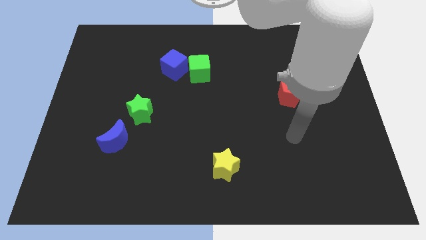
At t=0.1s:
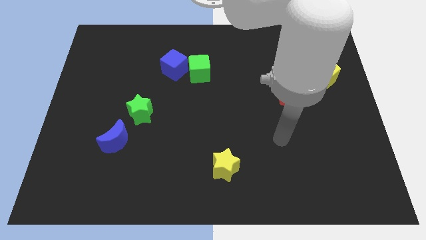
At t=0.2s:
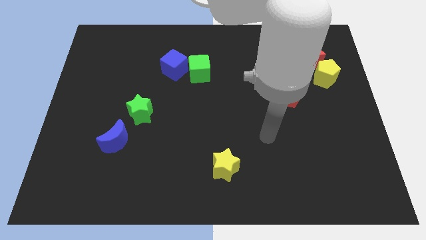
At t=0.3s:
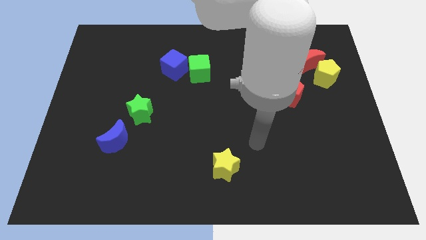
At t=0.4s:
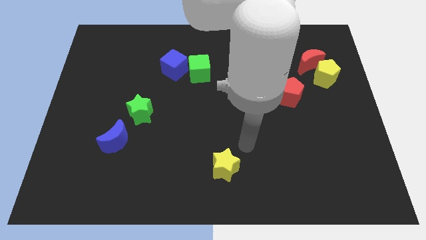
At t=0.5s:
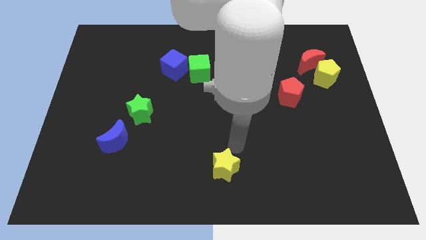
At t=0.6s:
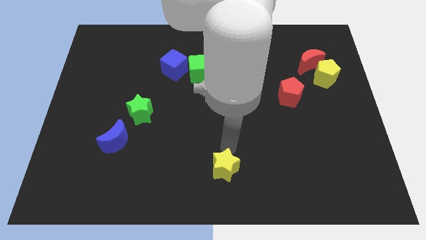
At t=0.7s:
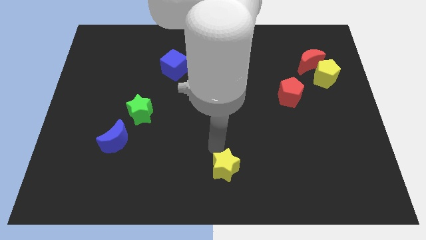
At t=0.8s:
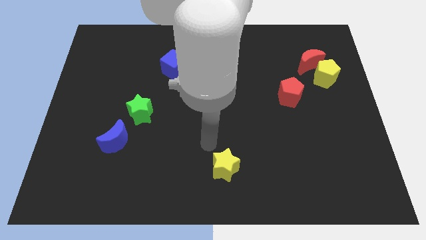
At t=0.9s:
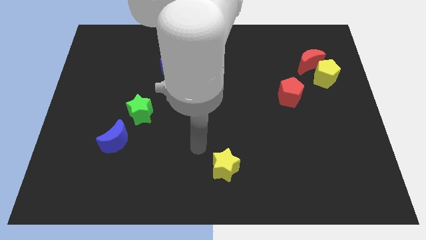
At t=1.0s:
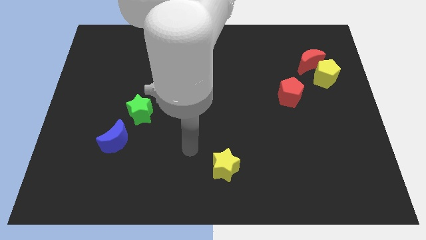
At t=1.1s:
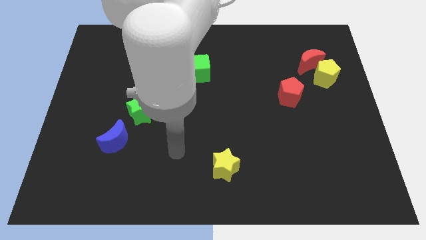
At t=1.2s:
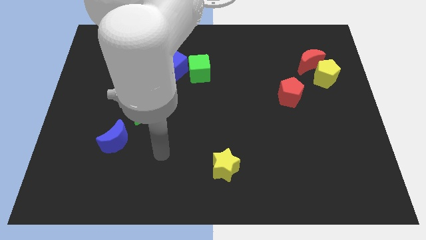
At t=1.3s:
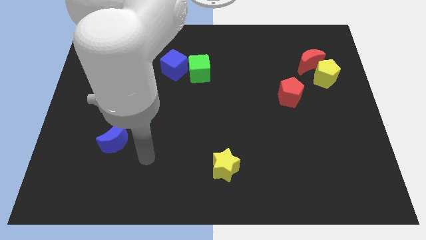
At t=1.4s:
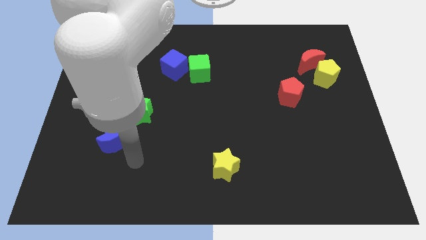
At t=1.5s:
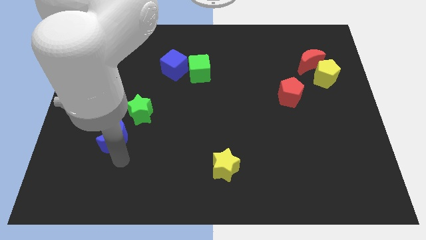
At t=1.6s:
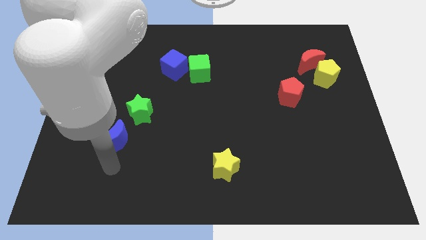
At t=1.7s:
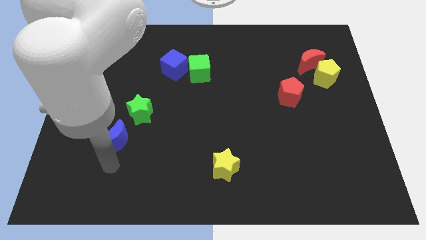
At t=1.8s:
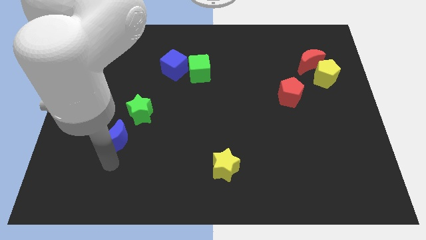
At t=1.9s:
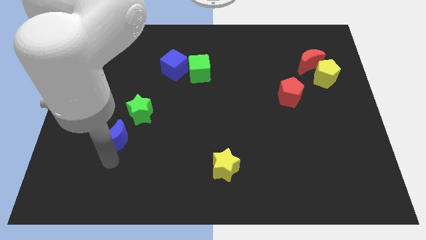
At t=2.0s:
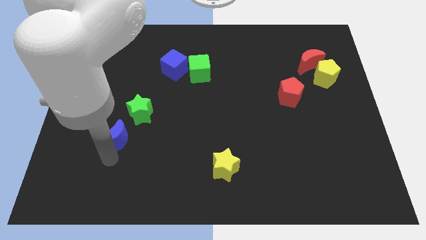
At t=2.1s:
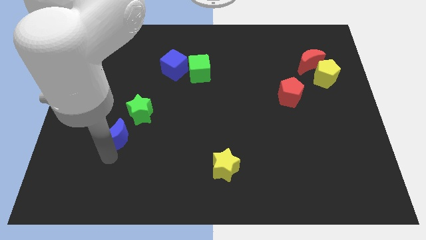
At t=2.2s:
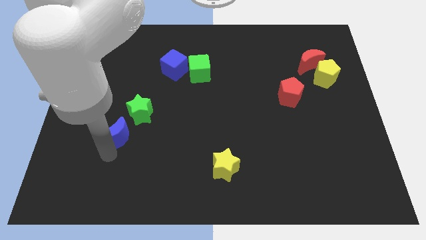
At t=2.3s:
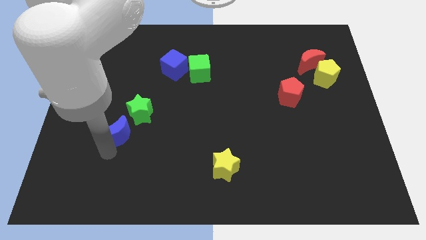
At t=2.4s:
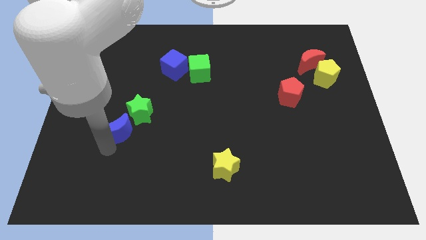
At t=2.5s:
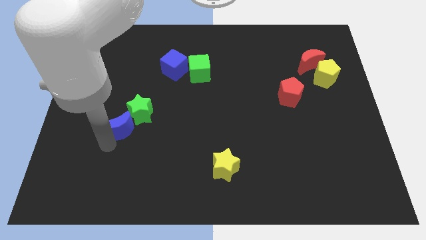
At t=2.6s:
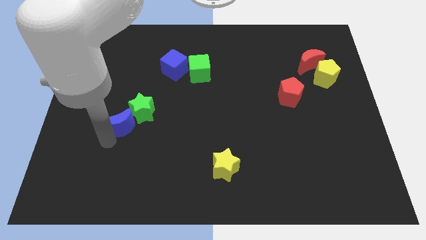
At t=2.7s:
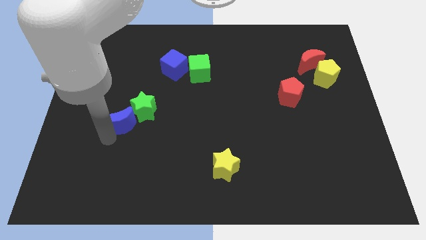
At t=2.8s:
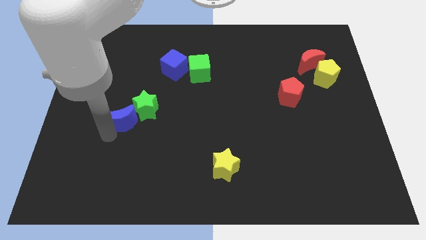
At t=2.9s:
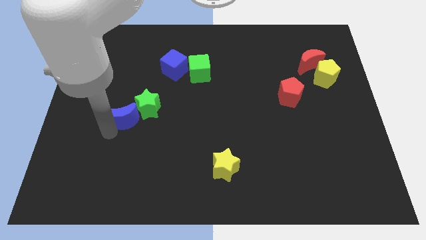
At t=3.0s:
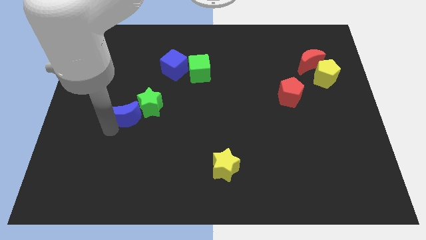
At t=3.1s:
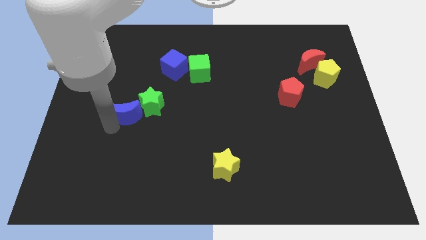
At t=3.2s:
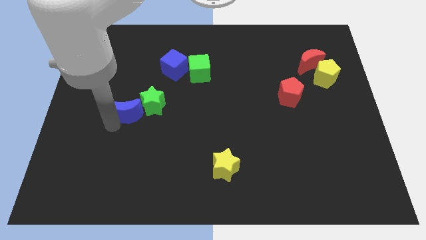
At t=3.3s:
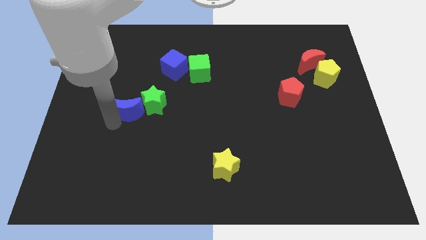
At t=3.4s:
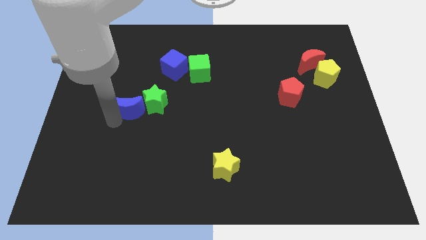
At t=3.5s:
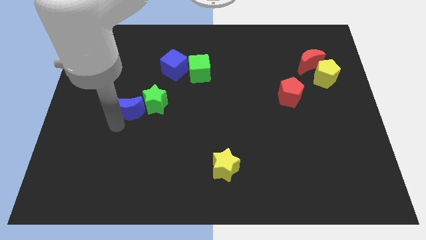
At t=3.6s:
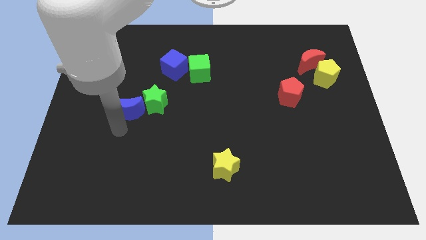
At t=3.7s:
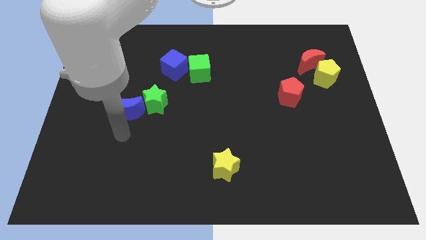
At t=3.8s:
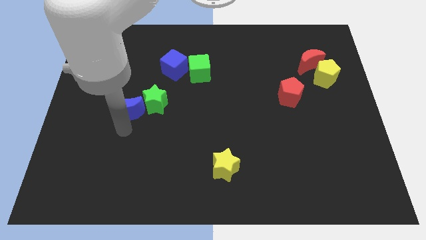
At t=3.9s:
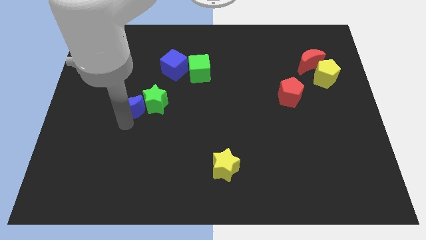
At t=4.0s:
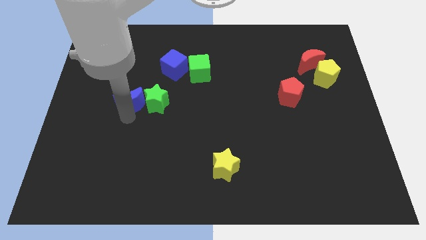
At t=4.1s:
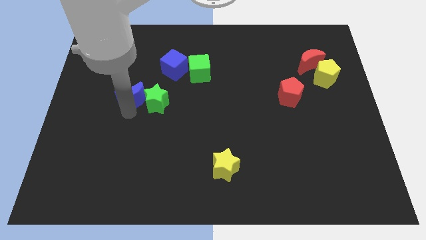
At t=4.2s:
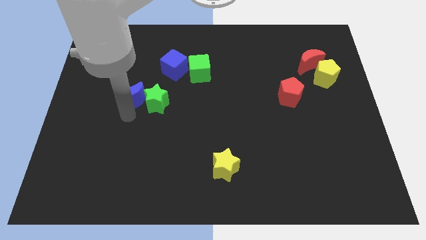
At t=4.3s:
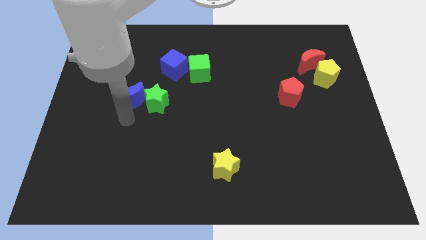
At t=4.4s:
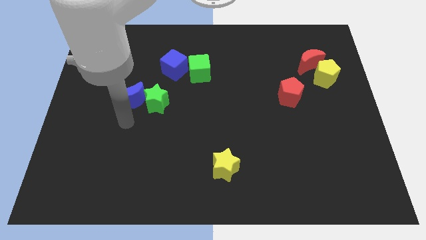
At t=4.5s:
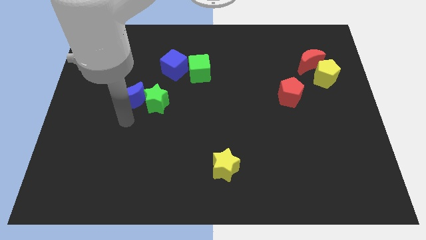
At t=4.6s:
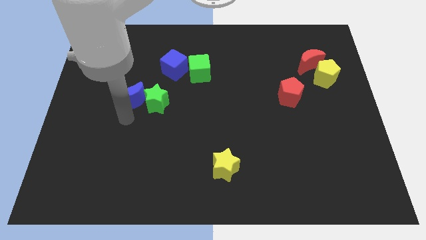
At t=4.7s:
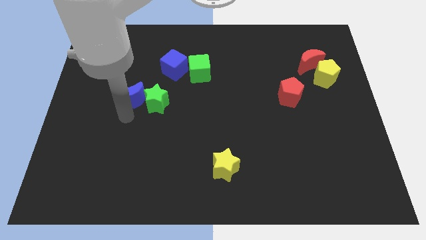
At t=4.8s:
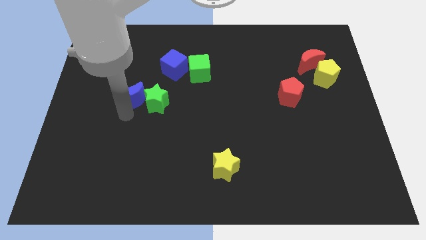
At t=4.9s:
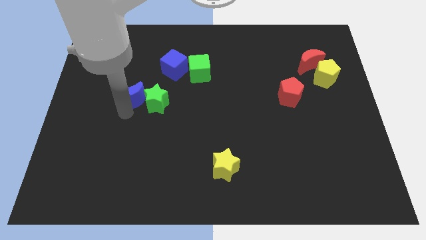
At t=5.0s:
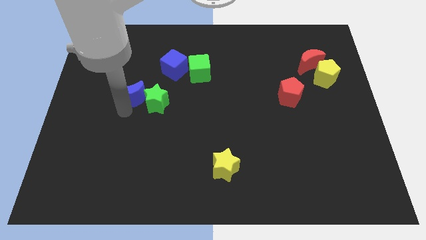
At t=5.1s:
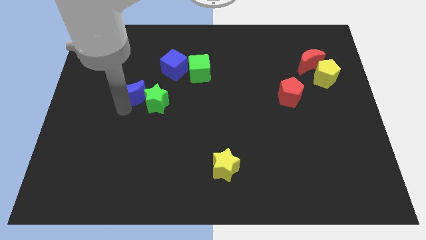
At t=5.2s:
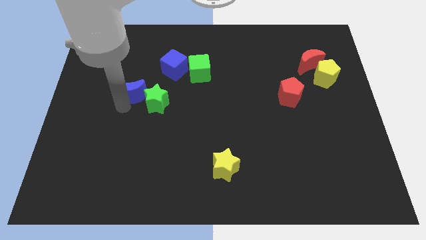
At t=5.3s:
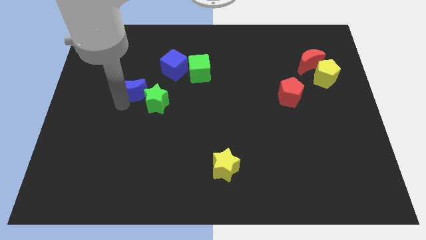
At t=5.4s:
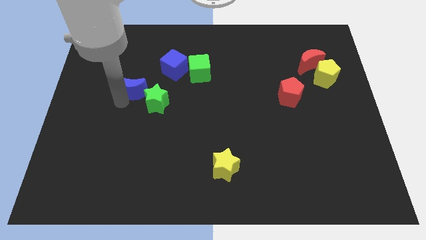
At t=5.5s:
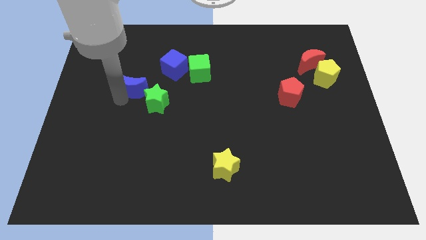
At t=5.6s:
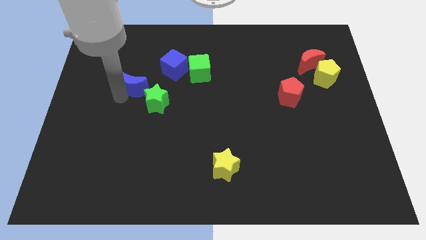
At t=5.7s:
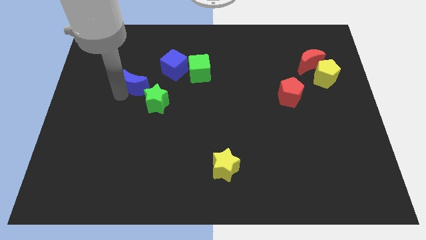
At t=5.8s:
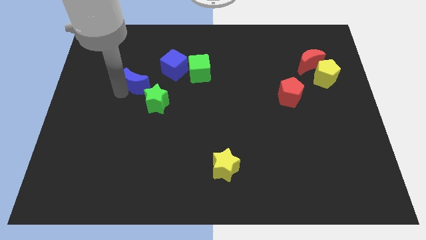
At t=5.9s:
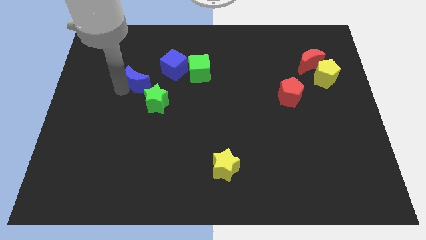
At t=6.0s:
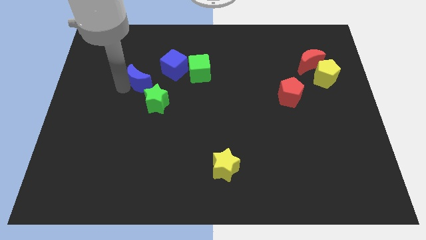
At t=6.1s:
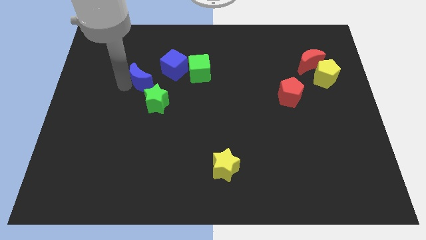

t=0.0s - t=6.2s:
move the blue moon above the green star

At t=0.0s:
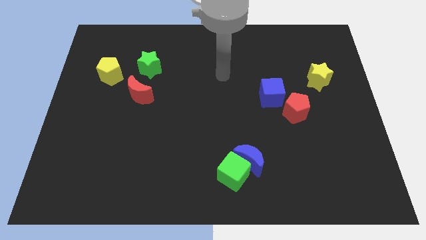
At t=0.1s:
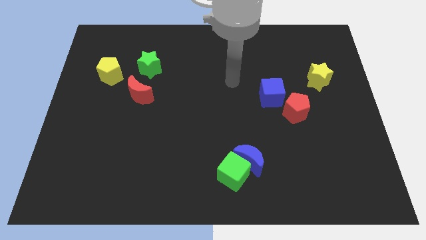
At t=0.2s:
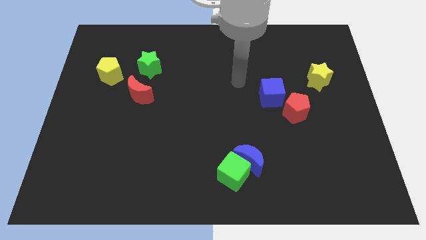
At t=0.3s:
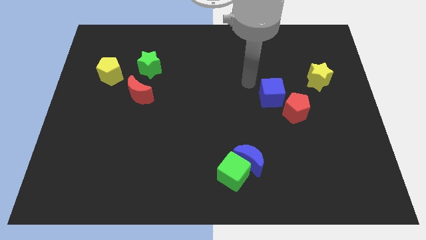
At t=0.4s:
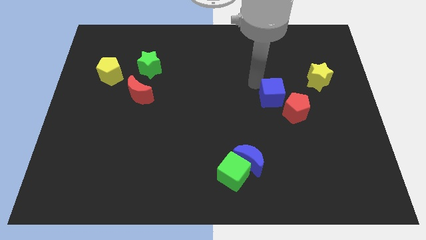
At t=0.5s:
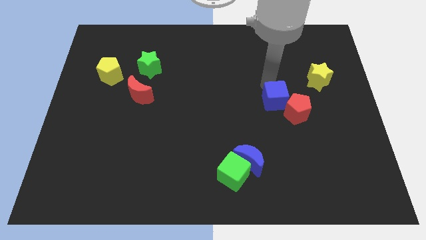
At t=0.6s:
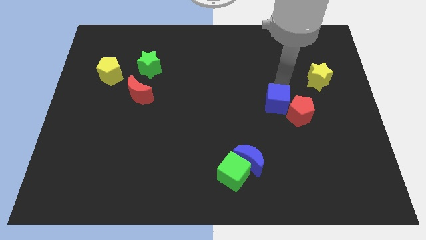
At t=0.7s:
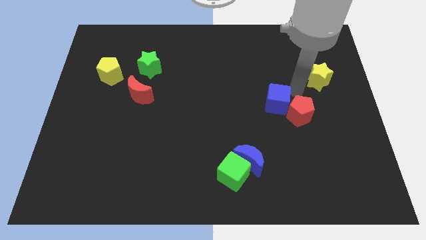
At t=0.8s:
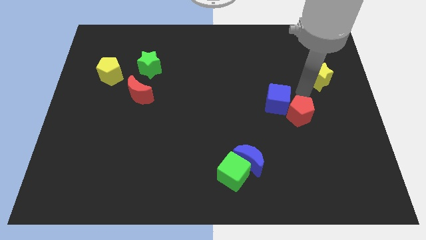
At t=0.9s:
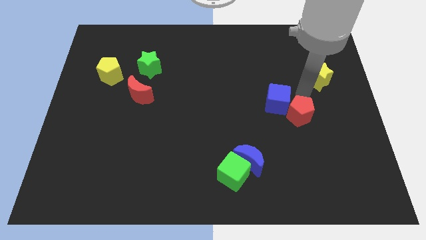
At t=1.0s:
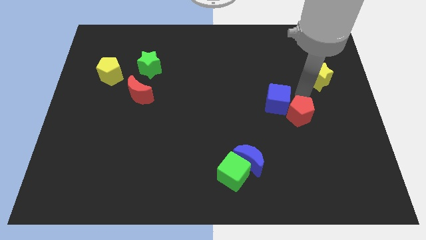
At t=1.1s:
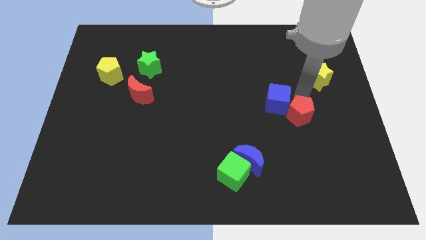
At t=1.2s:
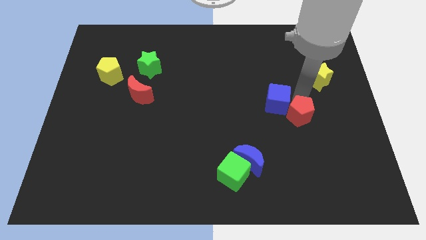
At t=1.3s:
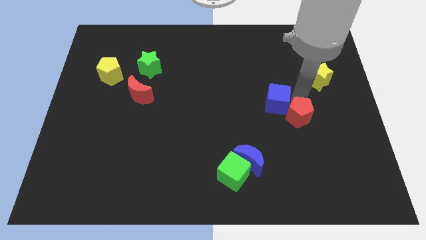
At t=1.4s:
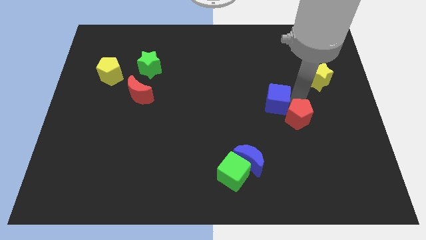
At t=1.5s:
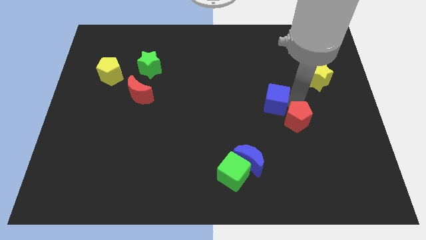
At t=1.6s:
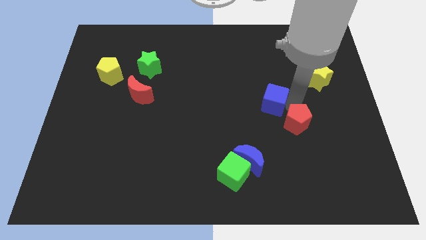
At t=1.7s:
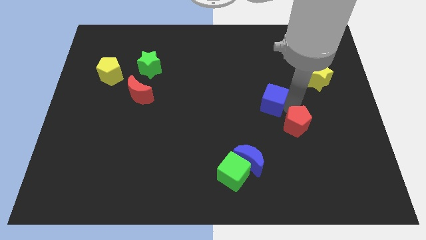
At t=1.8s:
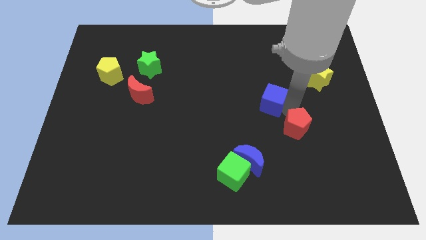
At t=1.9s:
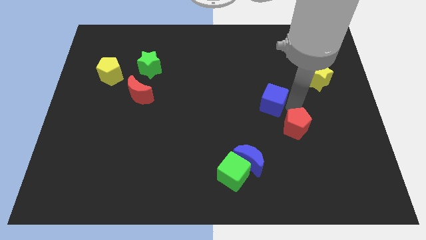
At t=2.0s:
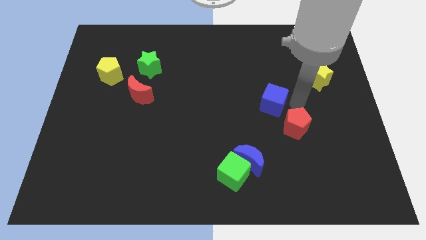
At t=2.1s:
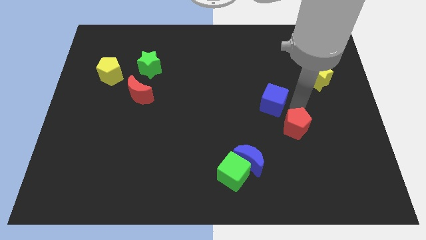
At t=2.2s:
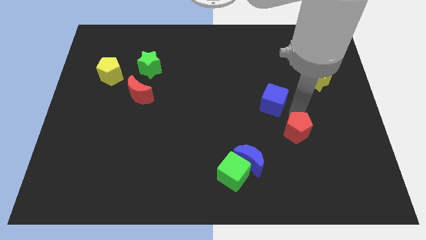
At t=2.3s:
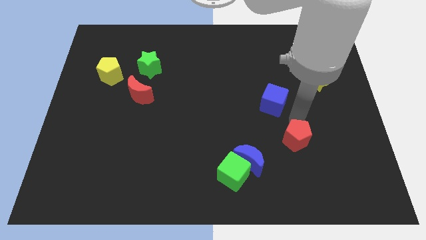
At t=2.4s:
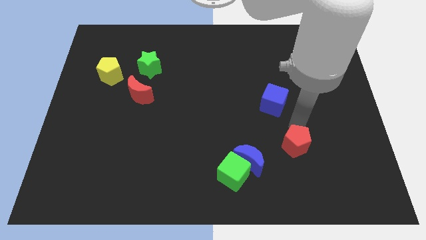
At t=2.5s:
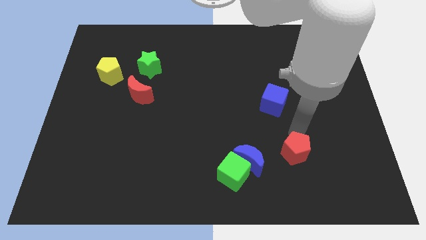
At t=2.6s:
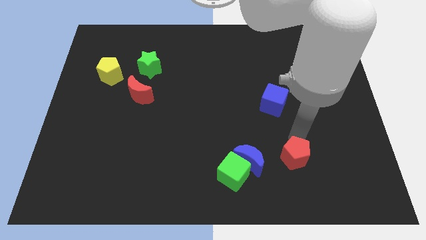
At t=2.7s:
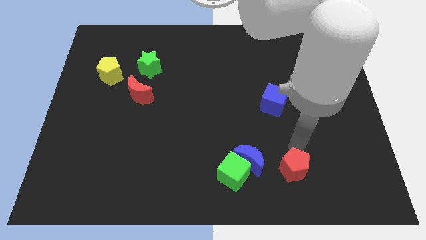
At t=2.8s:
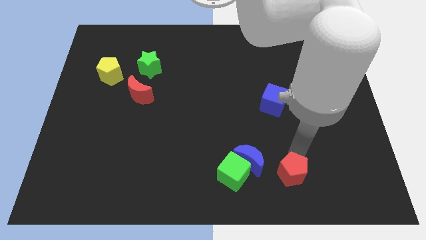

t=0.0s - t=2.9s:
push the red pentagon to the bottom right of the blue moon
